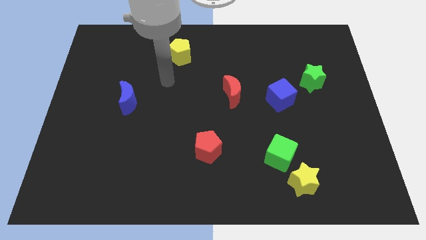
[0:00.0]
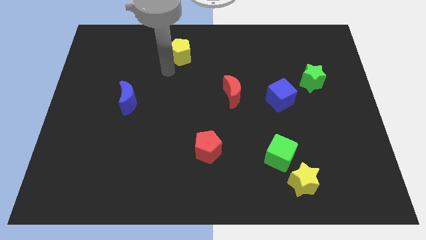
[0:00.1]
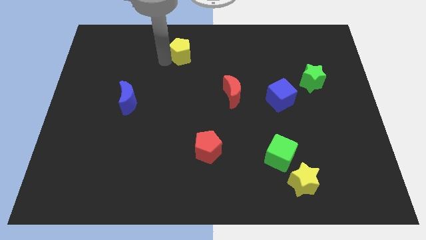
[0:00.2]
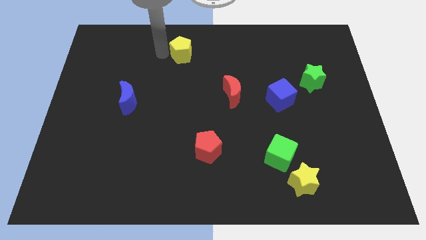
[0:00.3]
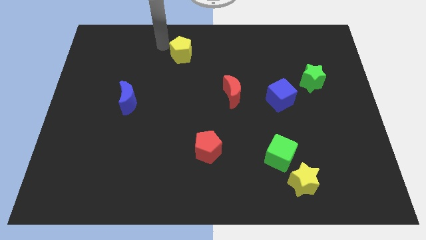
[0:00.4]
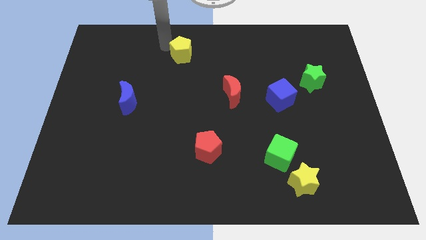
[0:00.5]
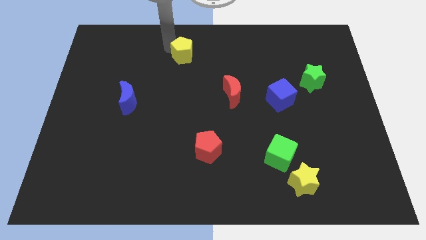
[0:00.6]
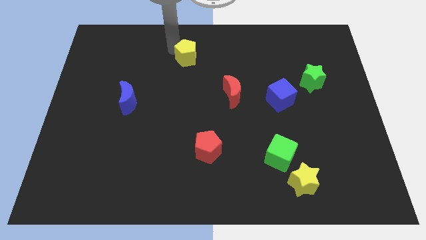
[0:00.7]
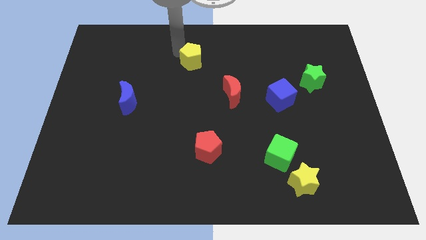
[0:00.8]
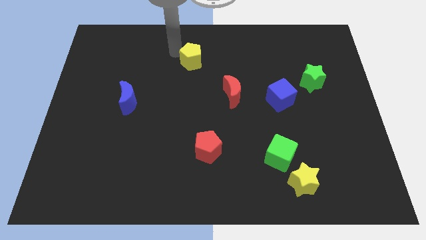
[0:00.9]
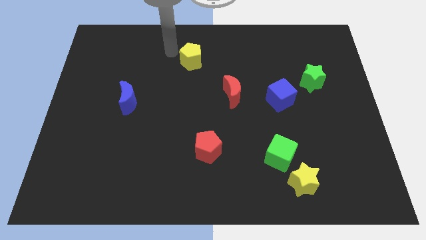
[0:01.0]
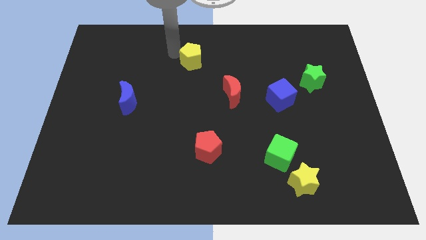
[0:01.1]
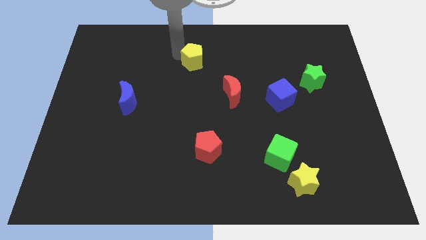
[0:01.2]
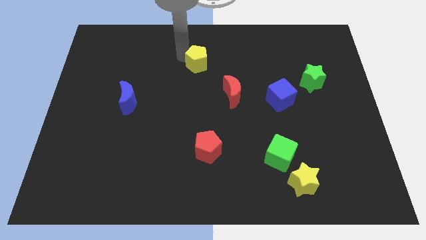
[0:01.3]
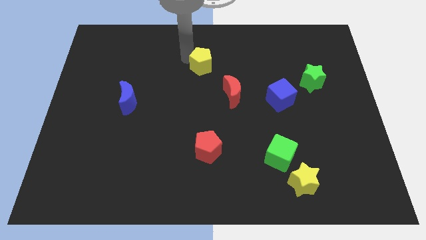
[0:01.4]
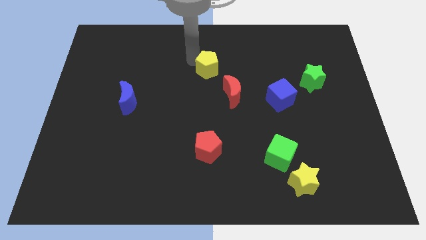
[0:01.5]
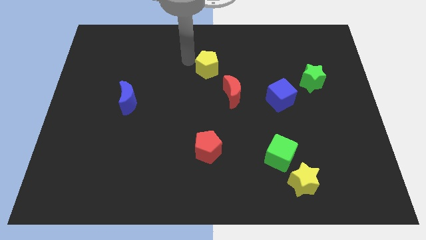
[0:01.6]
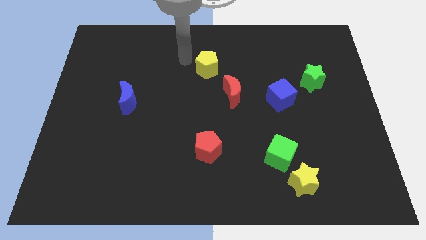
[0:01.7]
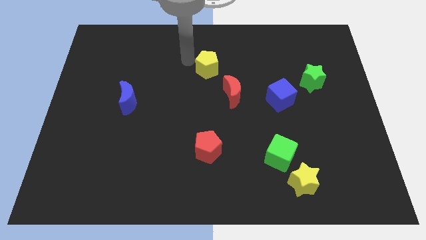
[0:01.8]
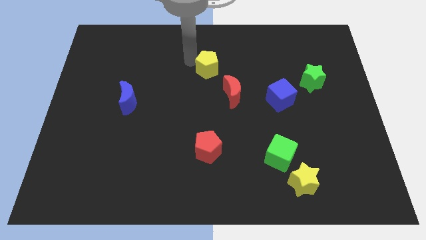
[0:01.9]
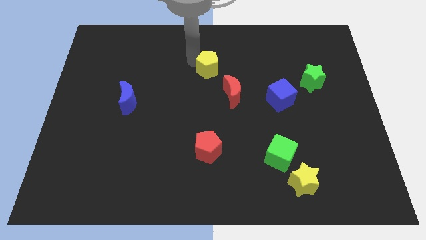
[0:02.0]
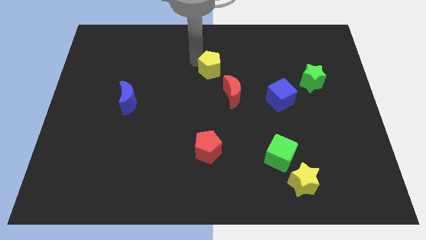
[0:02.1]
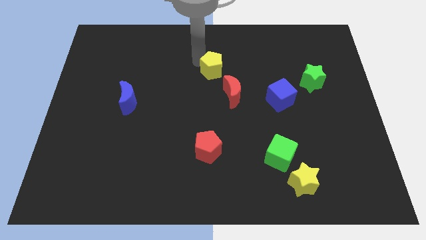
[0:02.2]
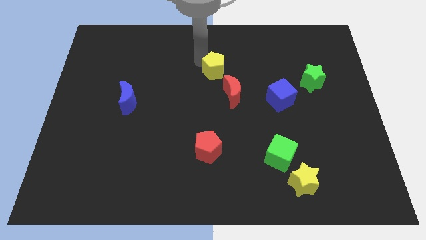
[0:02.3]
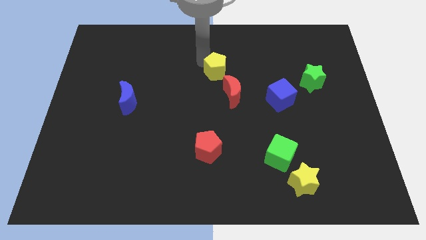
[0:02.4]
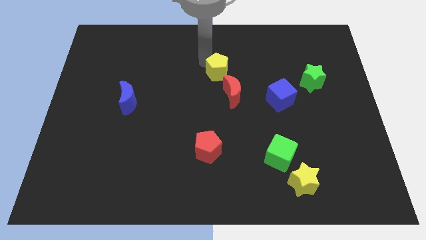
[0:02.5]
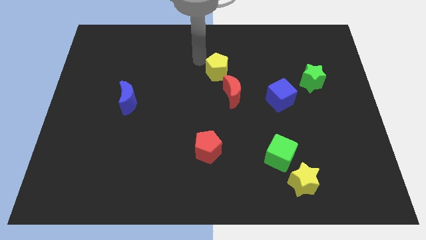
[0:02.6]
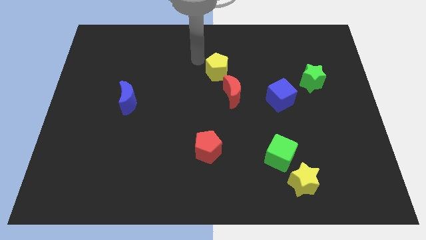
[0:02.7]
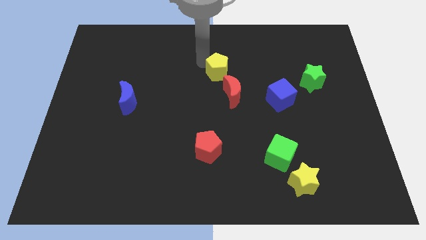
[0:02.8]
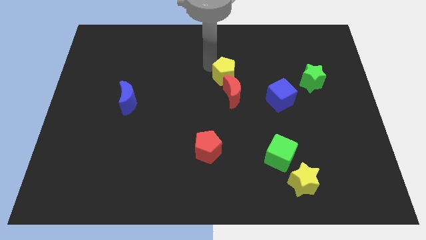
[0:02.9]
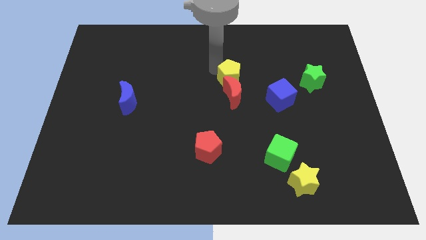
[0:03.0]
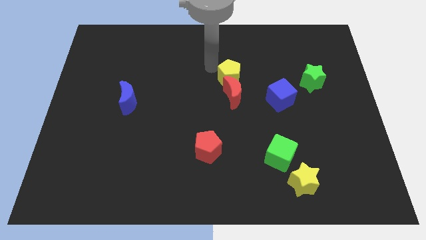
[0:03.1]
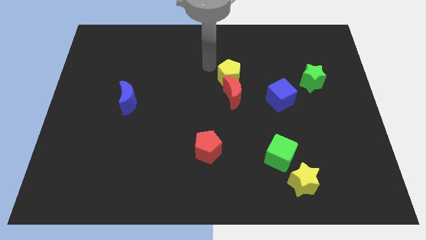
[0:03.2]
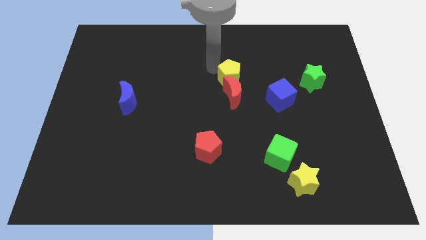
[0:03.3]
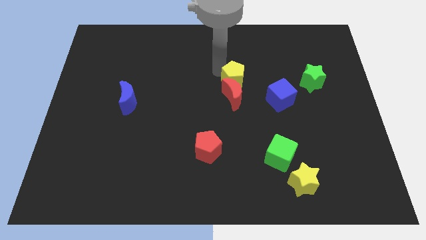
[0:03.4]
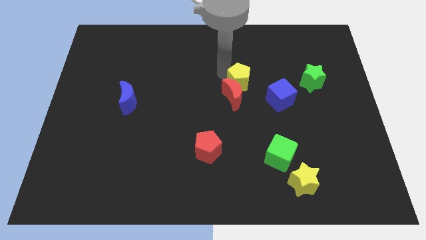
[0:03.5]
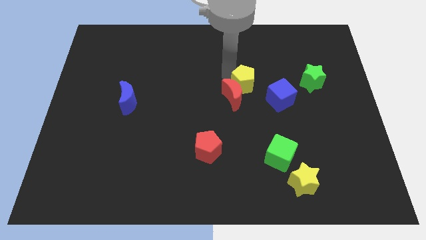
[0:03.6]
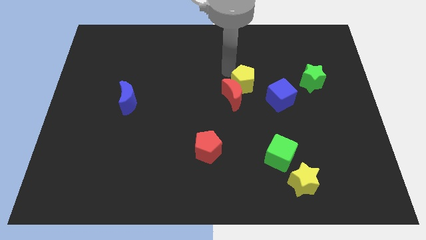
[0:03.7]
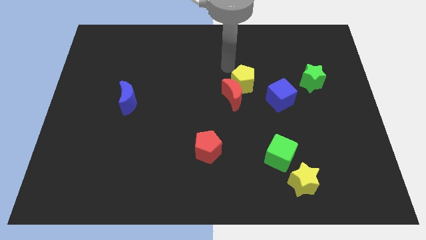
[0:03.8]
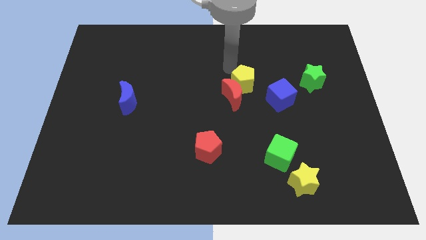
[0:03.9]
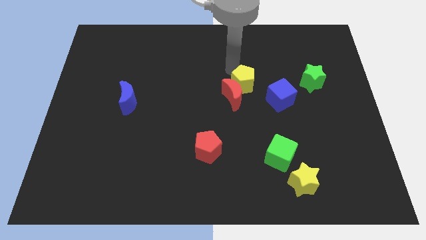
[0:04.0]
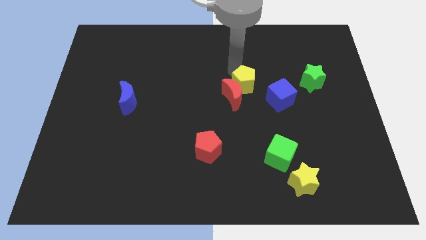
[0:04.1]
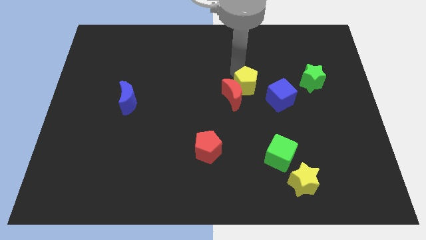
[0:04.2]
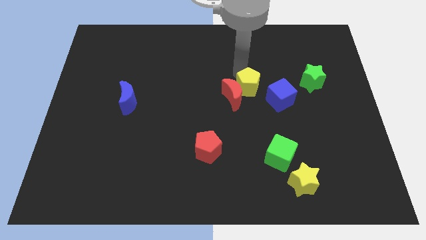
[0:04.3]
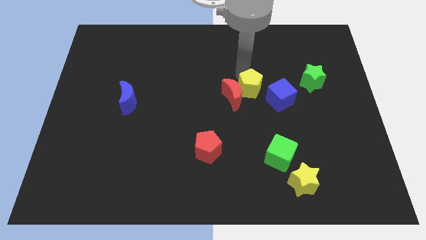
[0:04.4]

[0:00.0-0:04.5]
move the yellow pentagon down and to the right diagonally

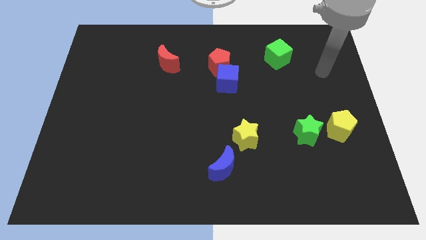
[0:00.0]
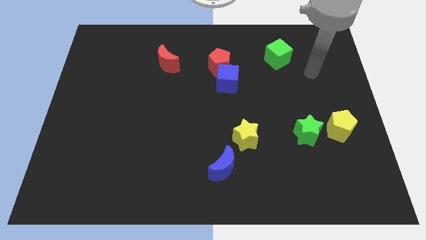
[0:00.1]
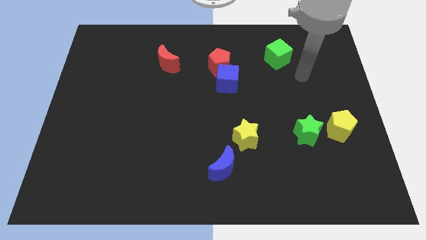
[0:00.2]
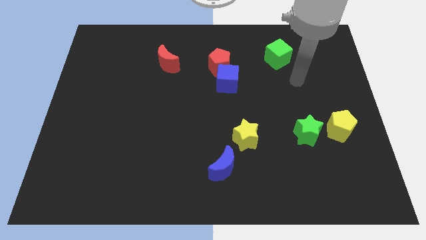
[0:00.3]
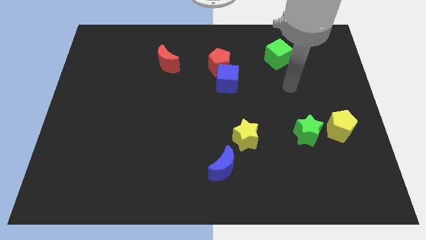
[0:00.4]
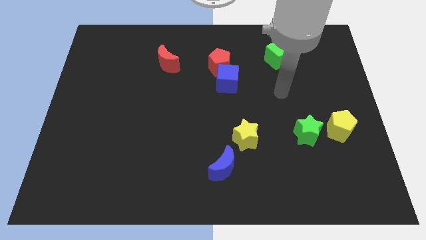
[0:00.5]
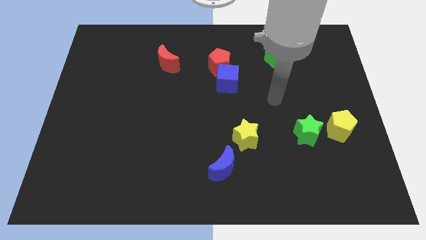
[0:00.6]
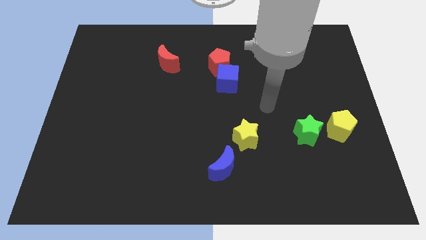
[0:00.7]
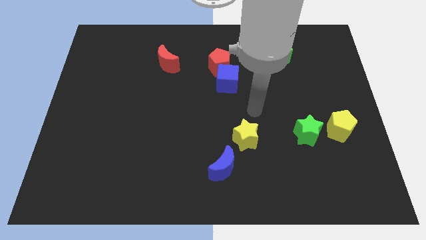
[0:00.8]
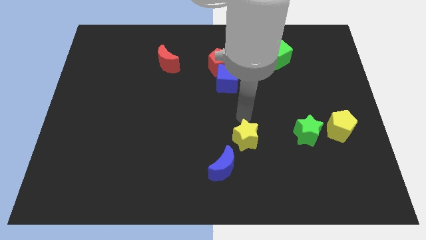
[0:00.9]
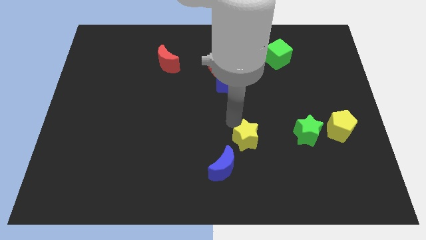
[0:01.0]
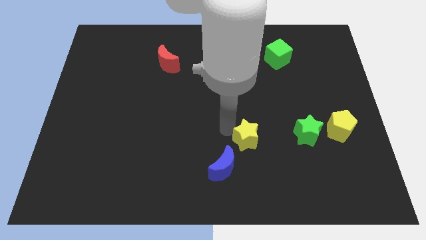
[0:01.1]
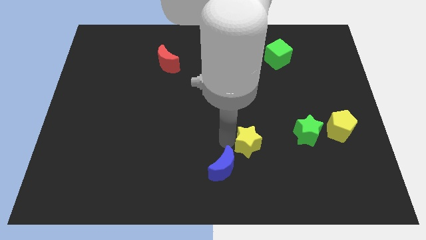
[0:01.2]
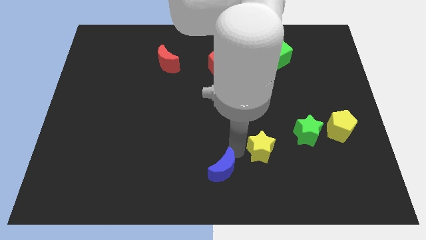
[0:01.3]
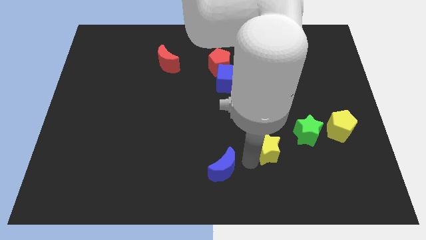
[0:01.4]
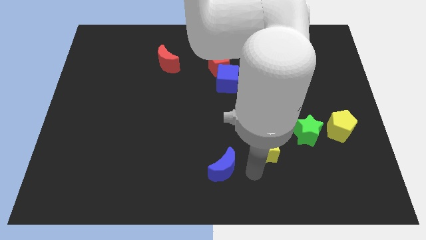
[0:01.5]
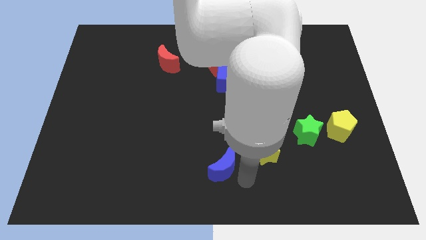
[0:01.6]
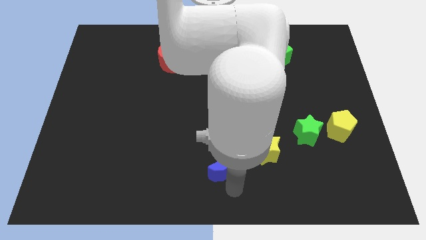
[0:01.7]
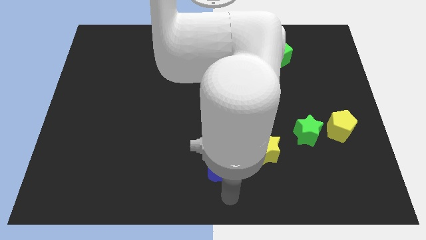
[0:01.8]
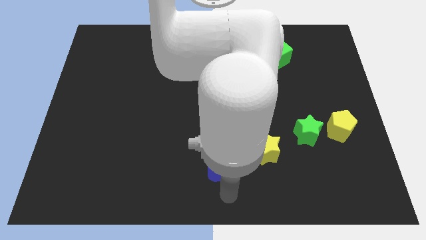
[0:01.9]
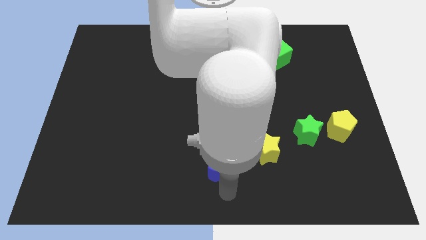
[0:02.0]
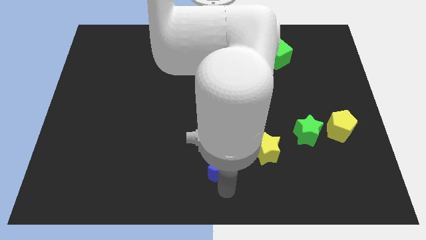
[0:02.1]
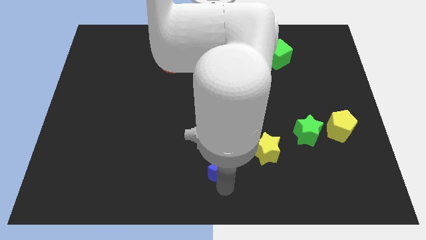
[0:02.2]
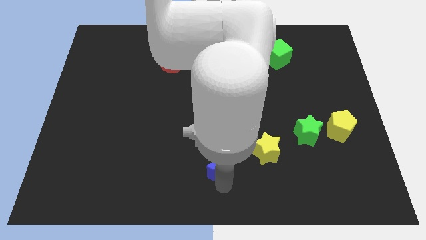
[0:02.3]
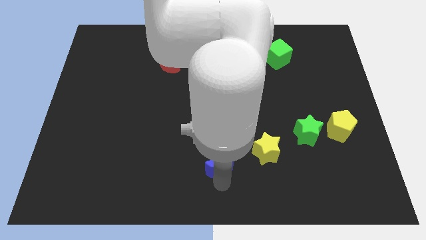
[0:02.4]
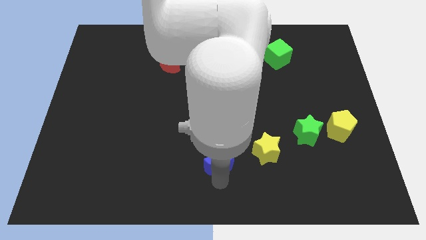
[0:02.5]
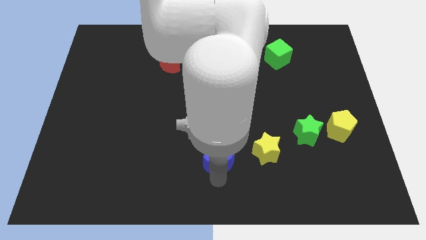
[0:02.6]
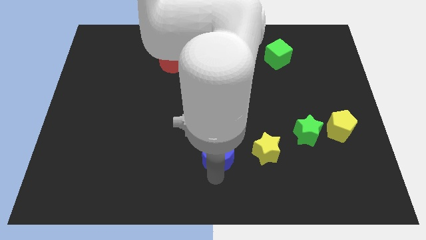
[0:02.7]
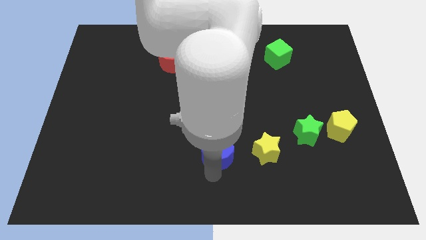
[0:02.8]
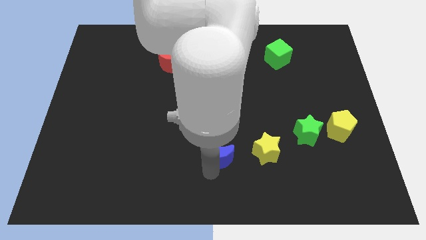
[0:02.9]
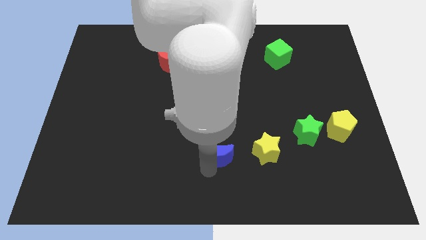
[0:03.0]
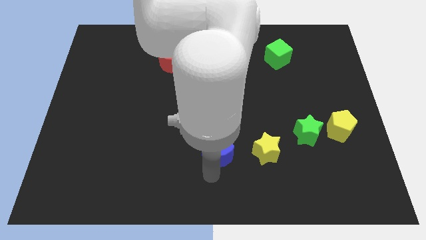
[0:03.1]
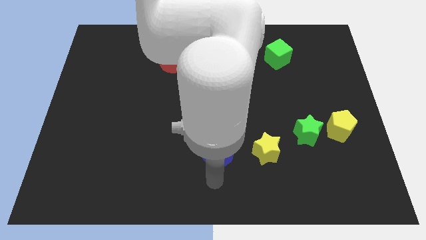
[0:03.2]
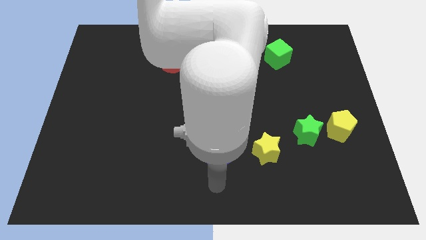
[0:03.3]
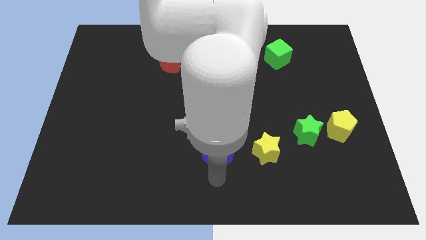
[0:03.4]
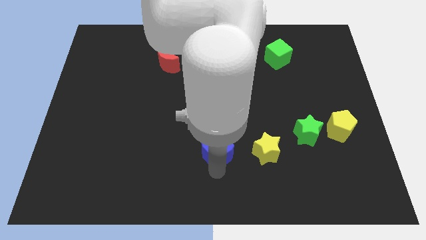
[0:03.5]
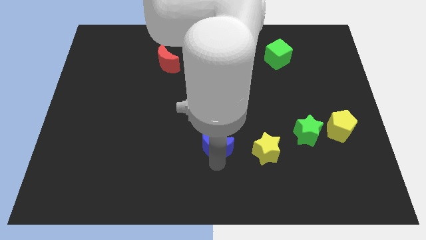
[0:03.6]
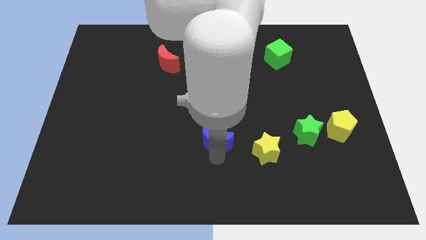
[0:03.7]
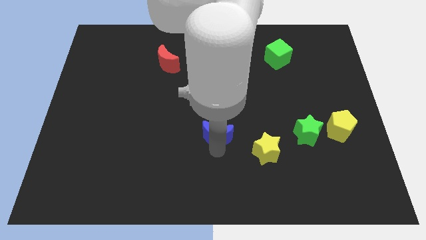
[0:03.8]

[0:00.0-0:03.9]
move the blue moon up slightly
